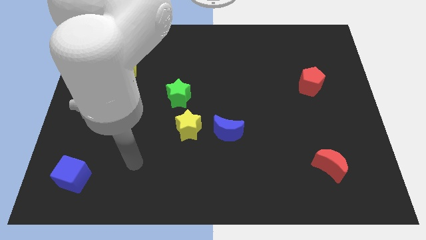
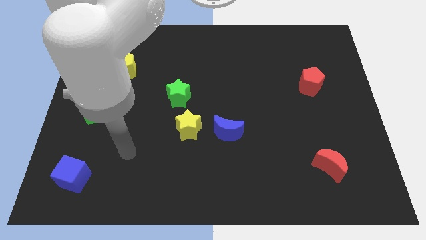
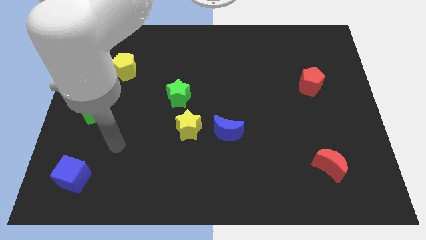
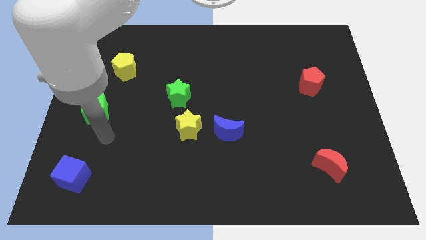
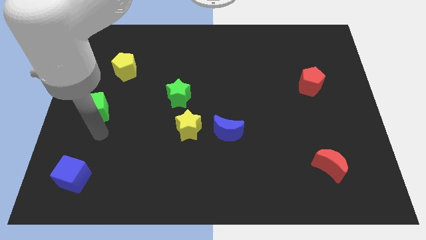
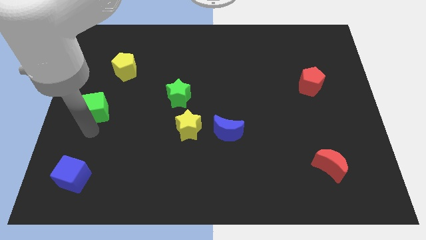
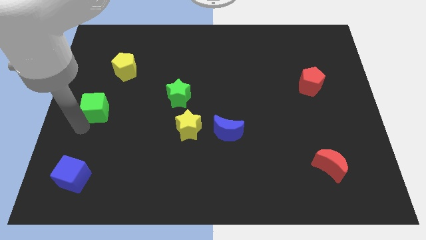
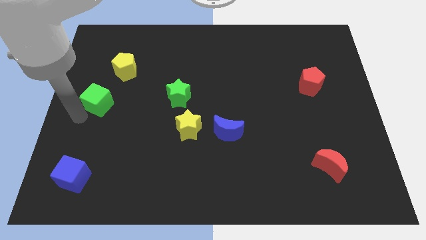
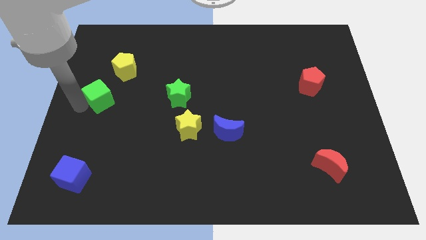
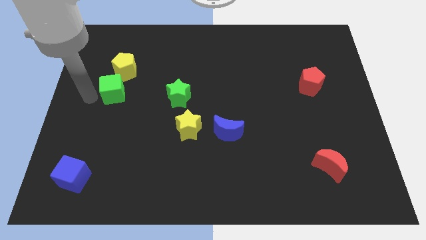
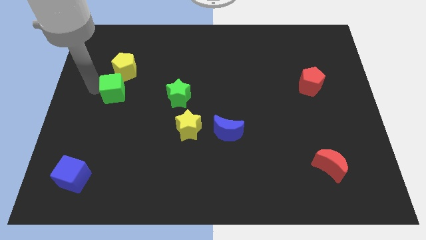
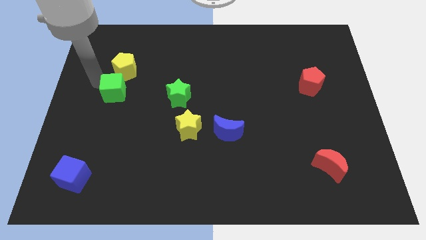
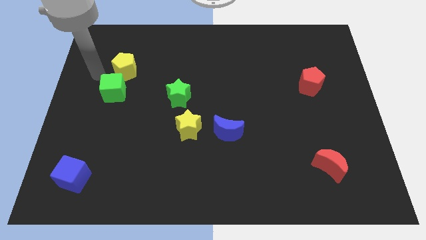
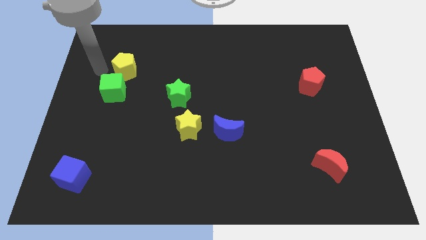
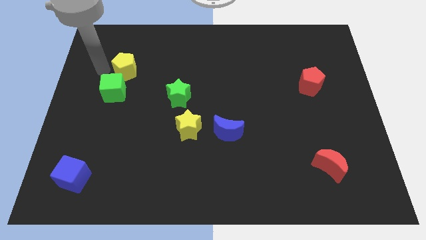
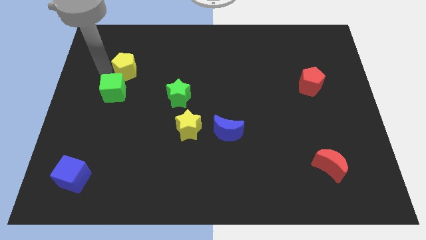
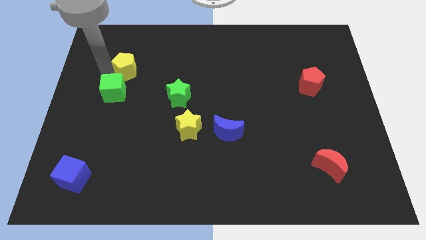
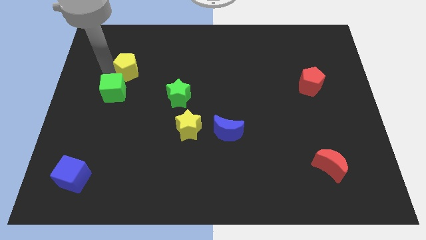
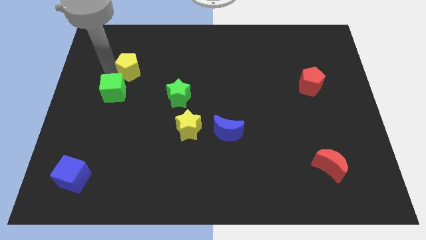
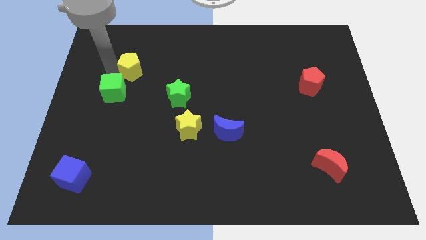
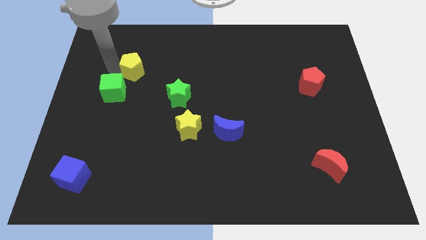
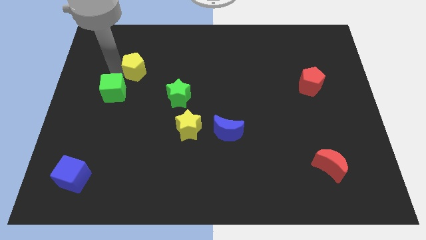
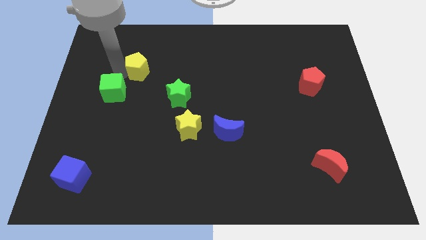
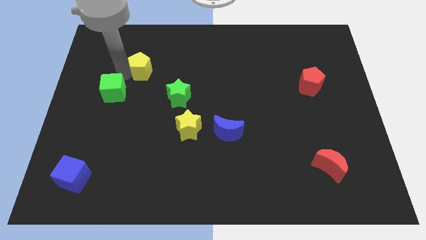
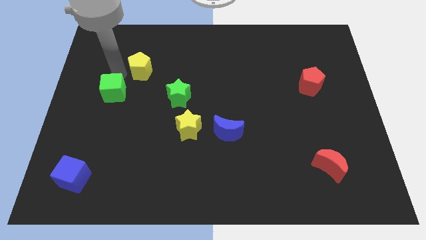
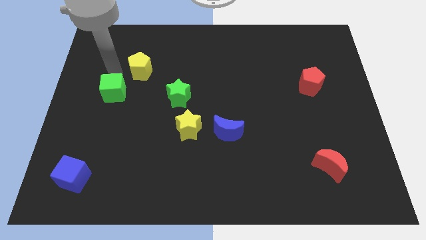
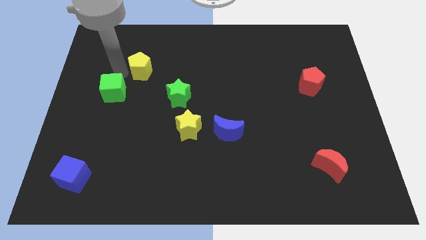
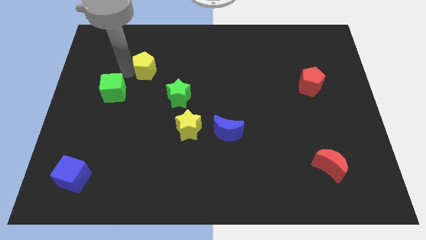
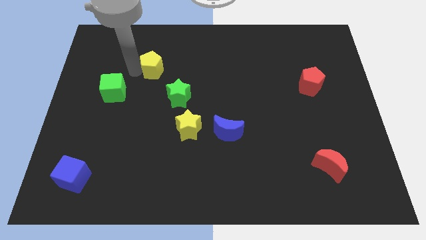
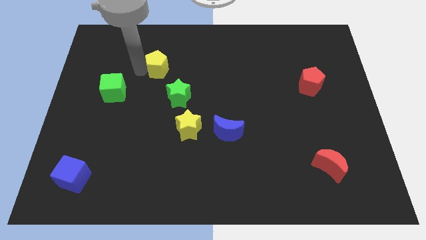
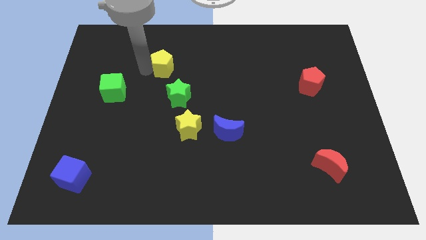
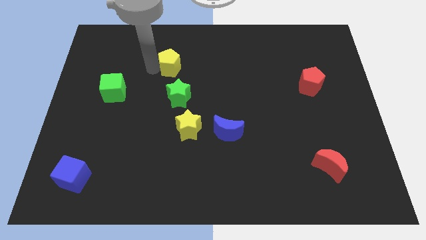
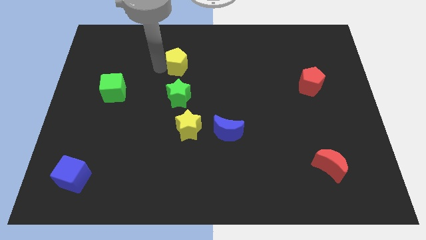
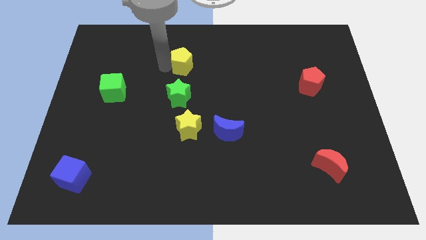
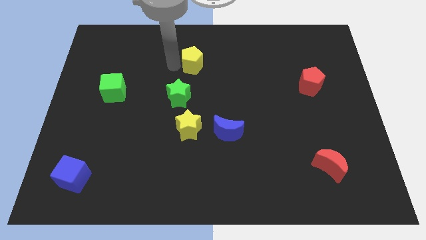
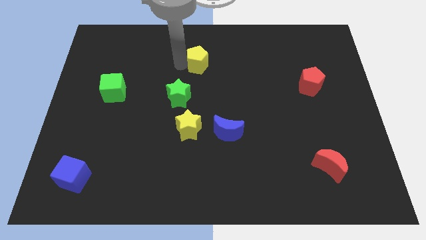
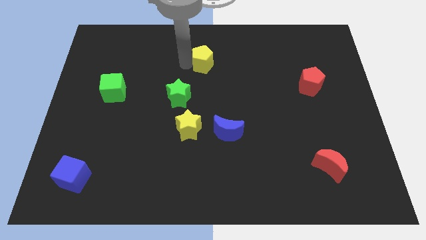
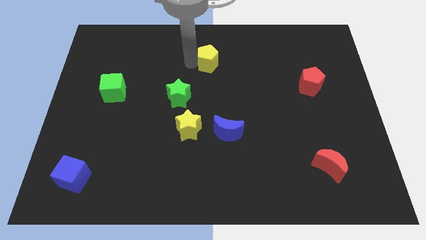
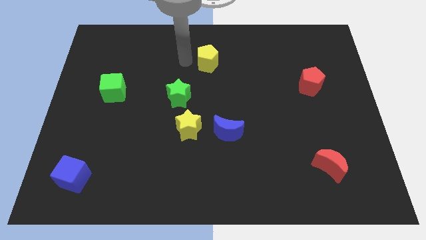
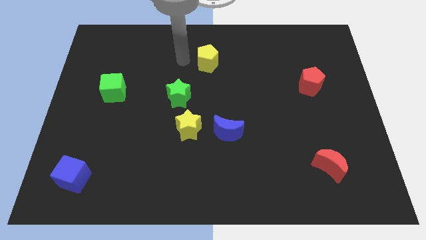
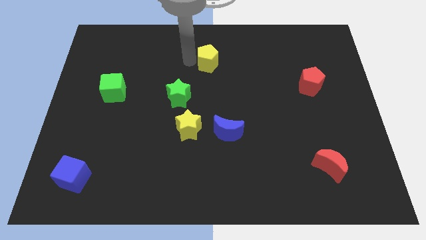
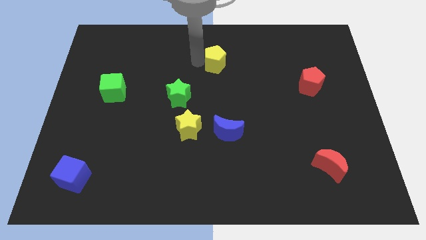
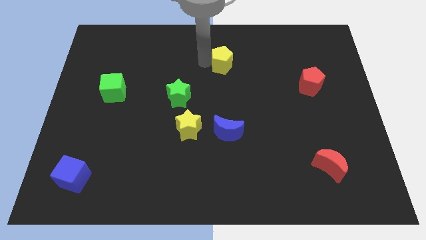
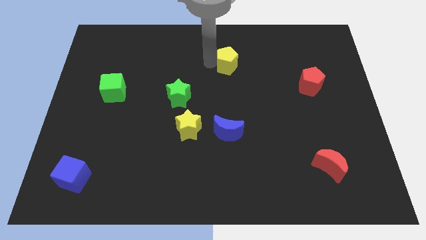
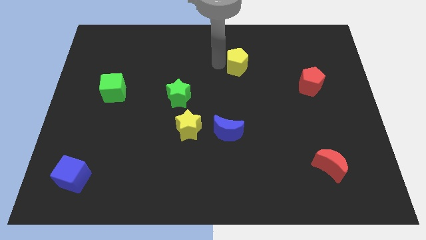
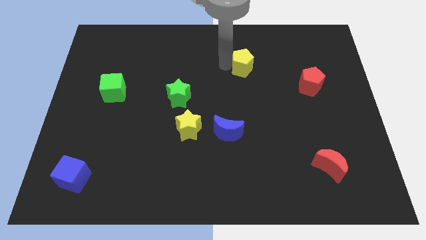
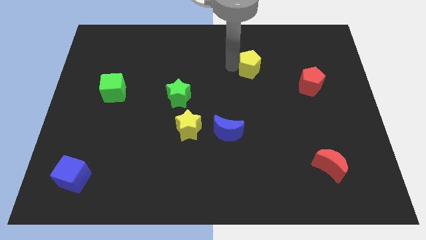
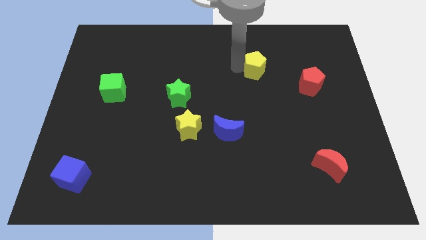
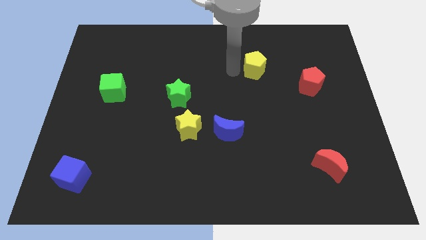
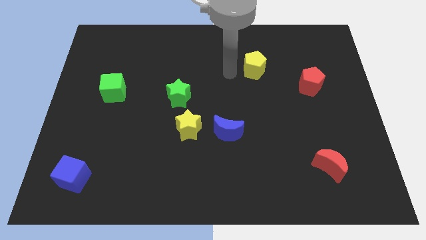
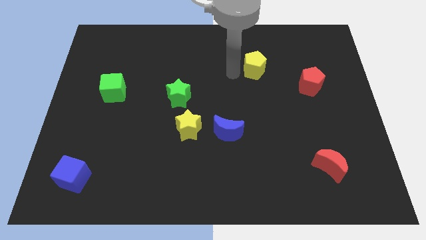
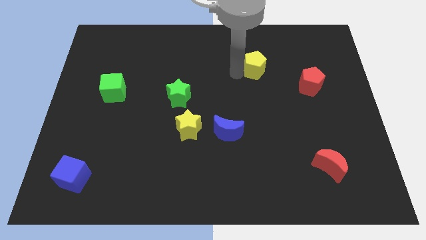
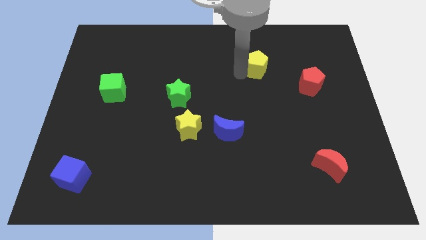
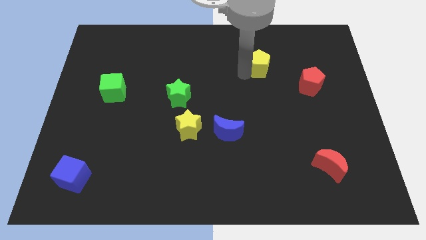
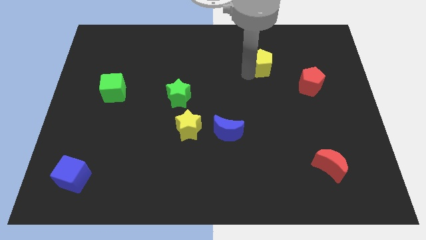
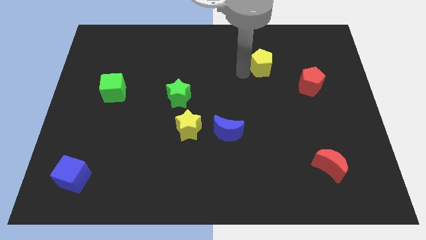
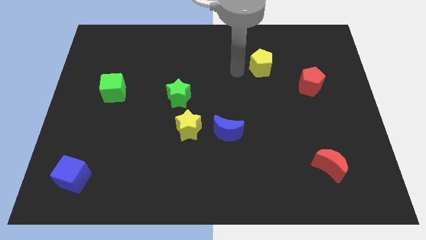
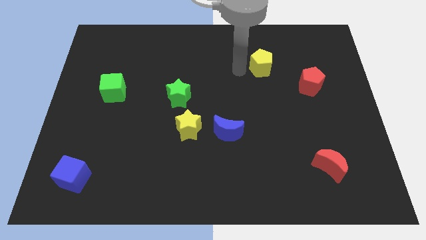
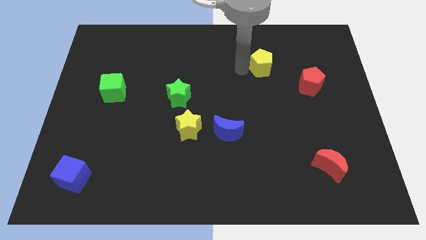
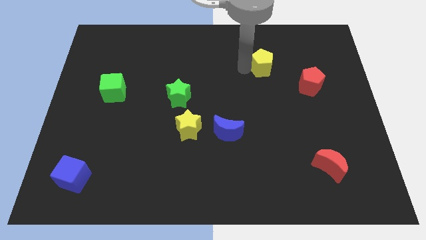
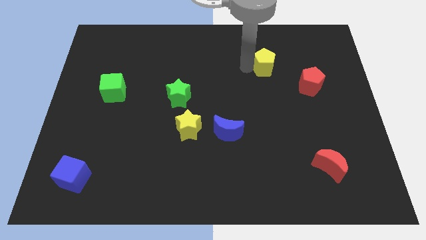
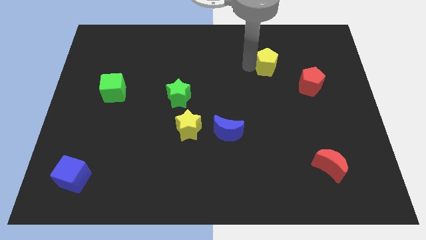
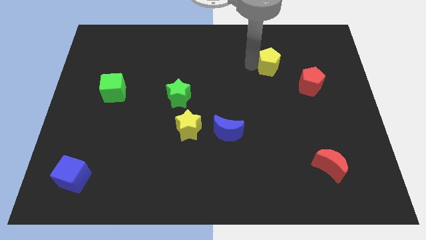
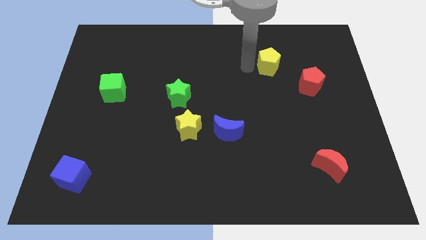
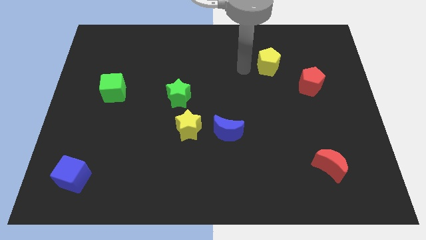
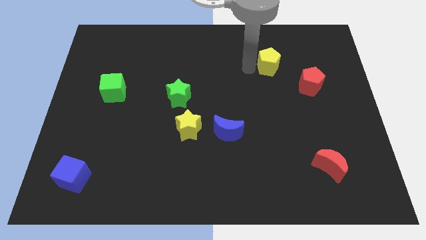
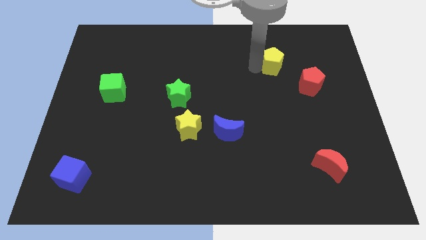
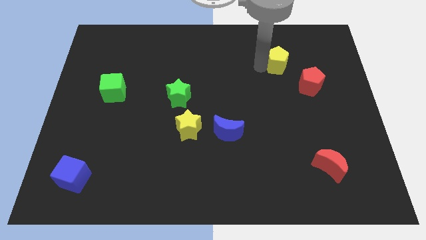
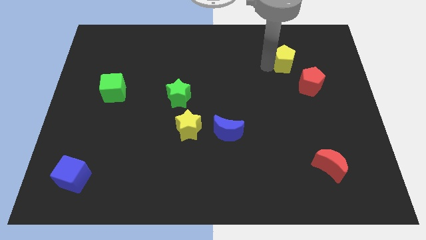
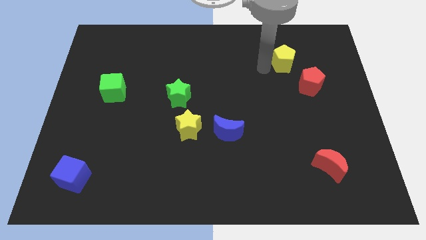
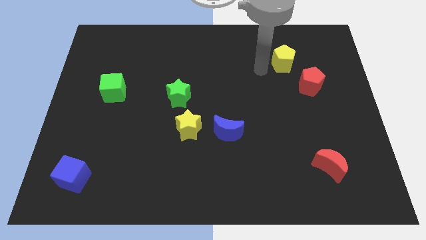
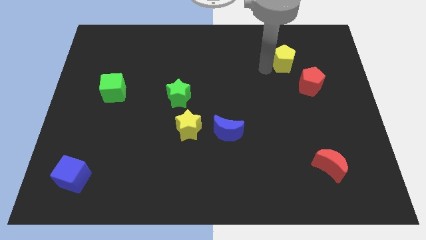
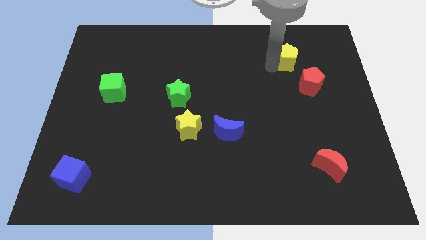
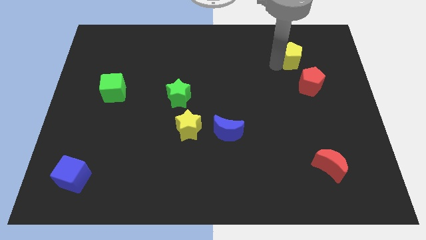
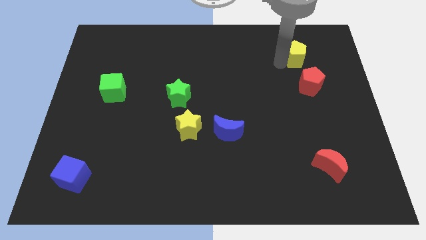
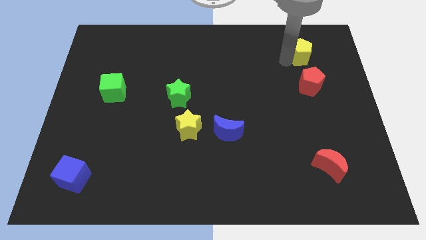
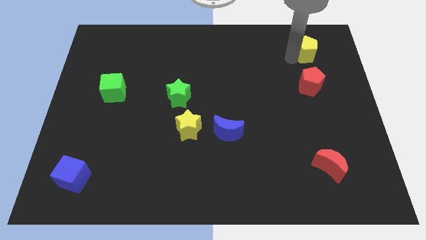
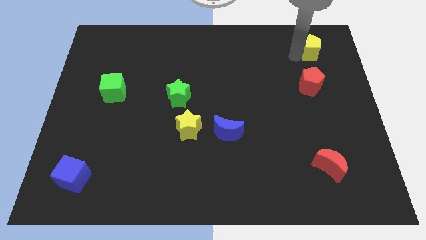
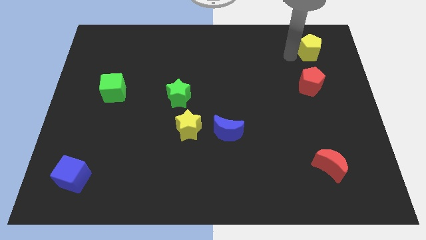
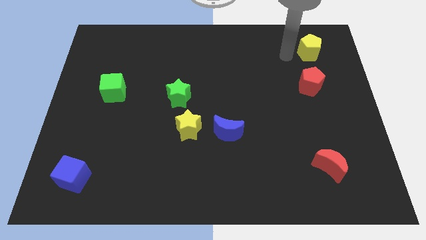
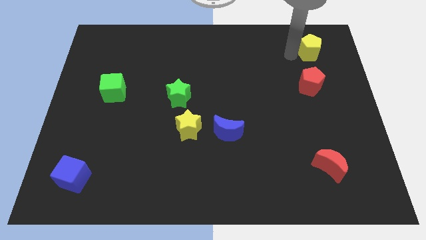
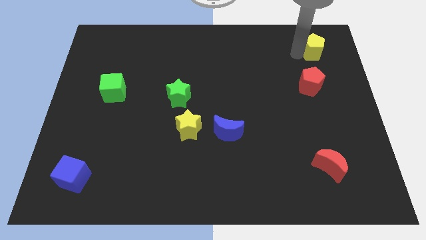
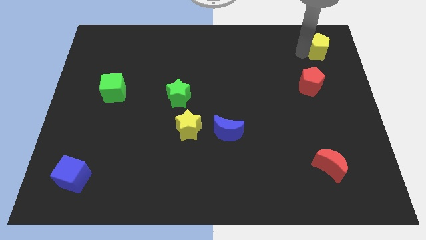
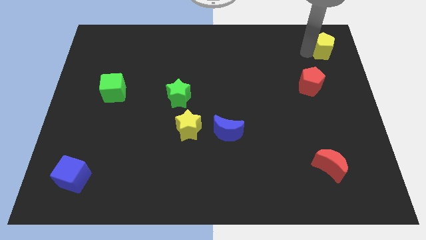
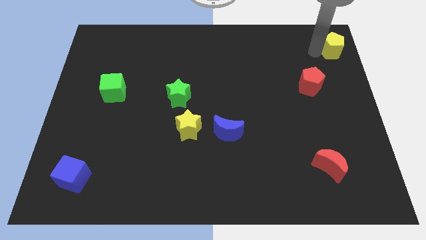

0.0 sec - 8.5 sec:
put the yellow pentagon to the top right
